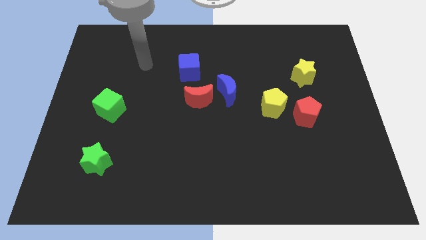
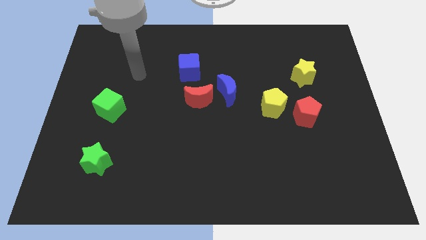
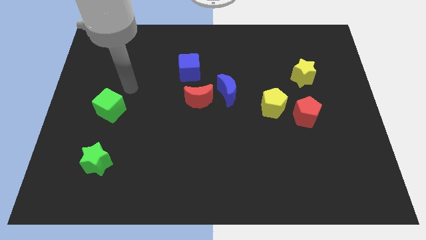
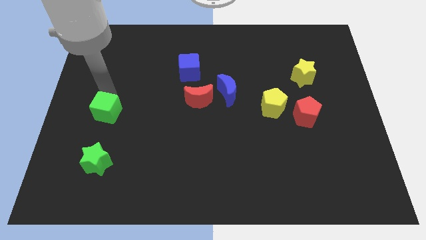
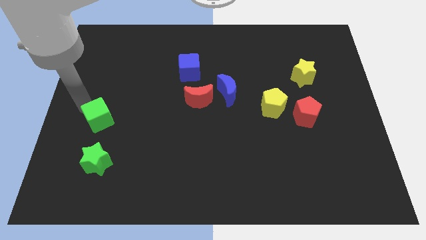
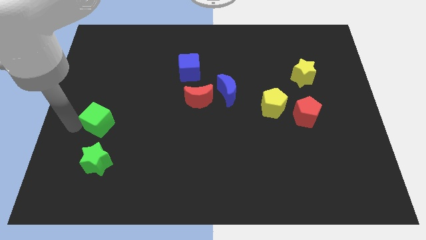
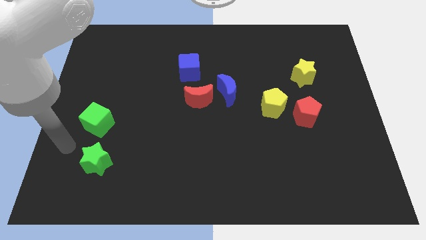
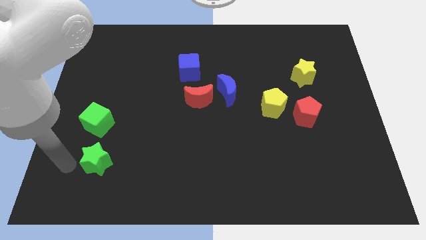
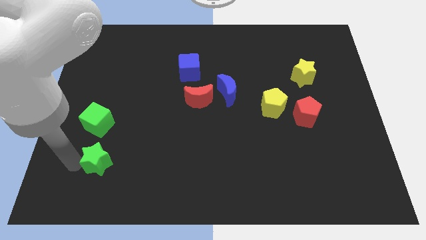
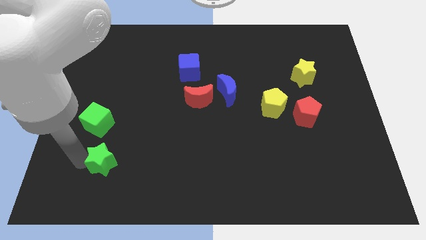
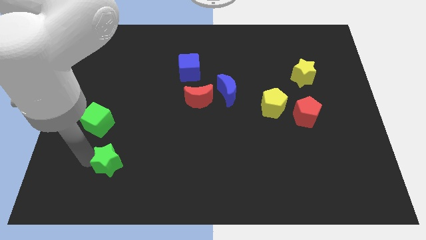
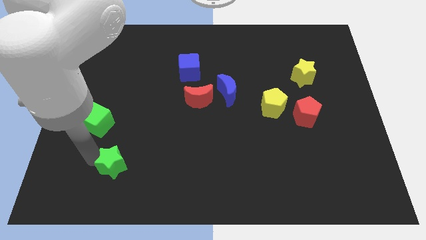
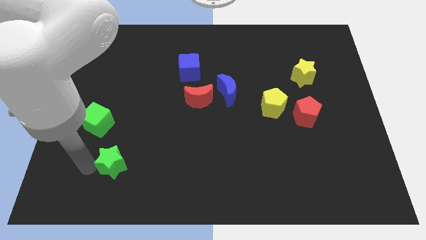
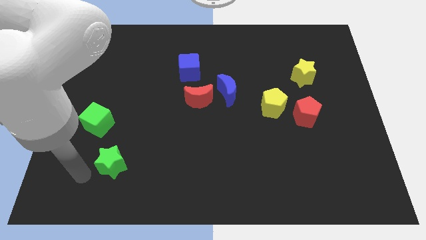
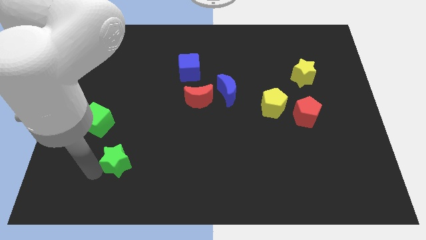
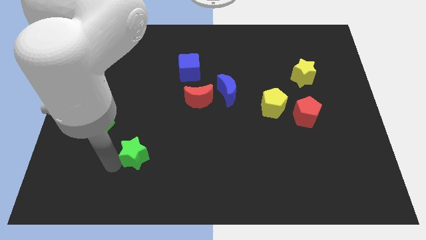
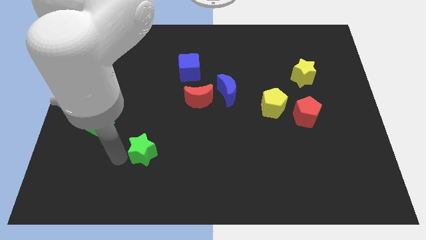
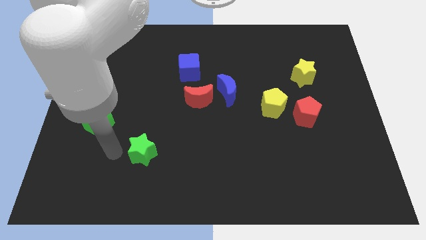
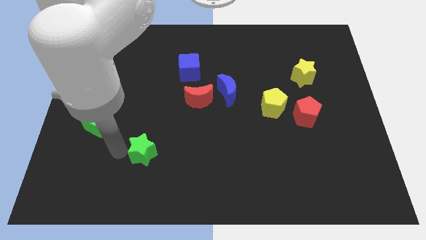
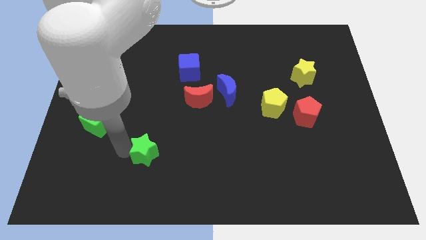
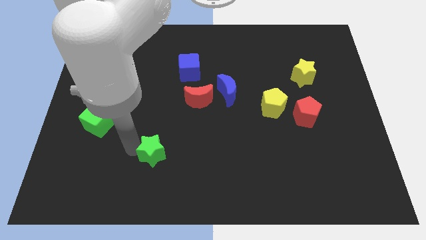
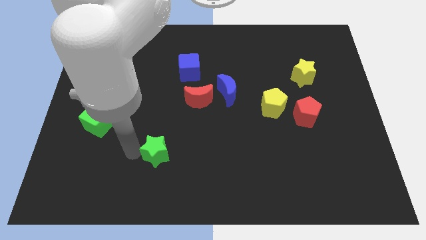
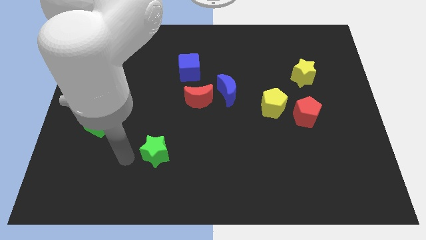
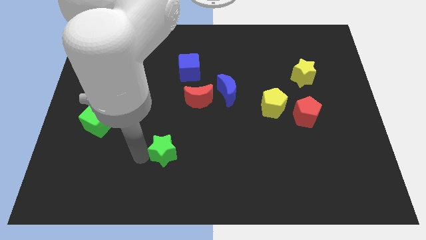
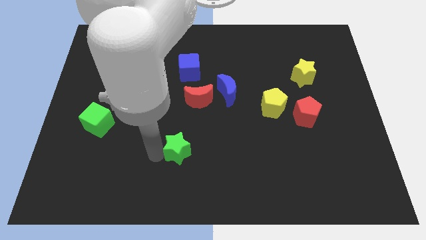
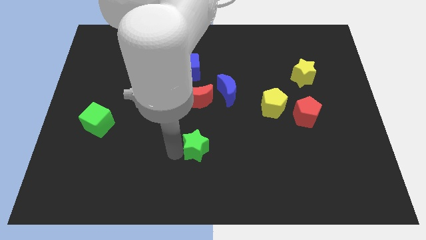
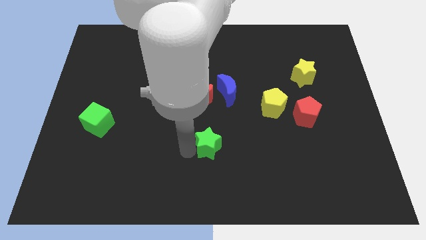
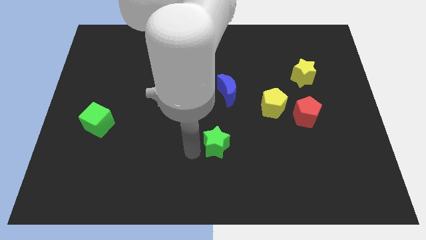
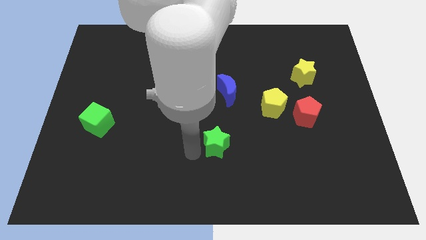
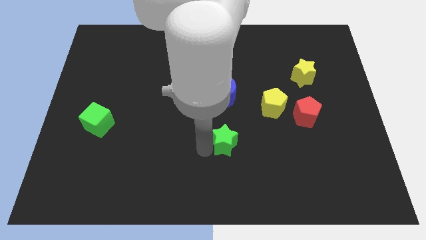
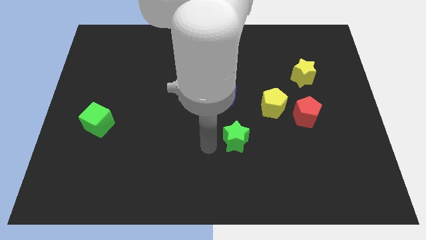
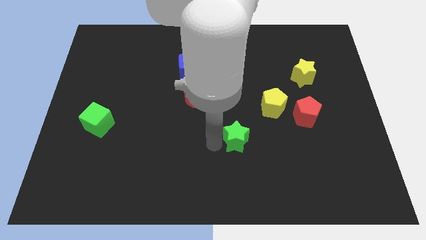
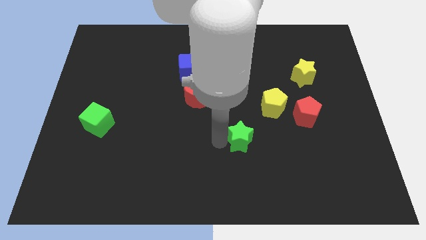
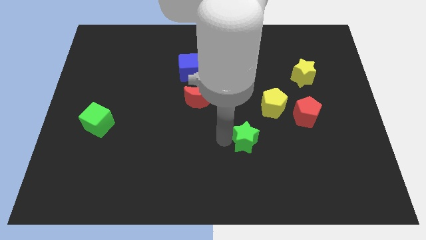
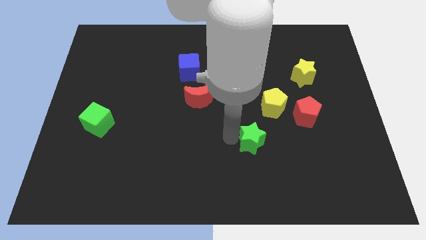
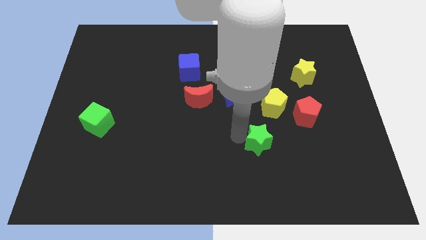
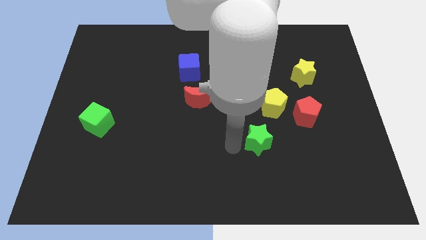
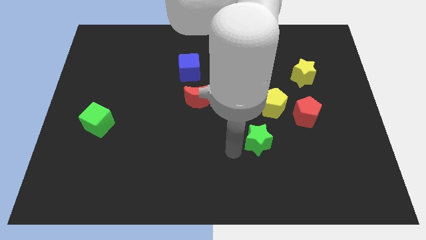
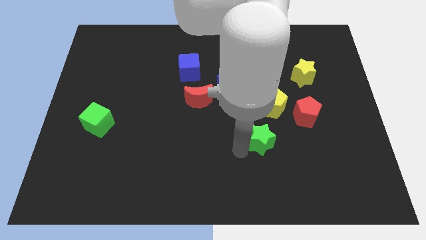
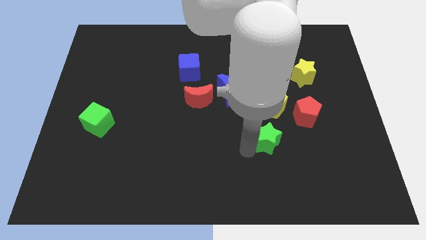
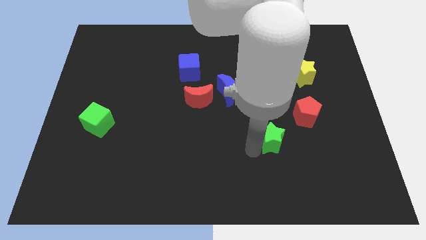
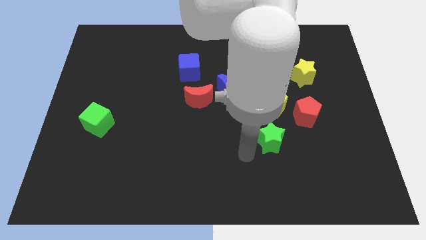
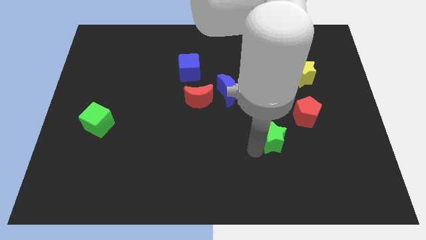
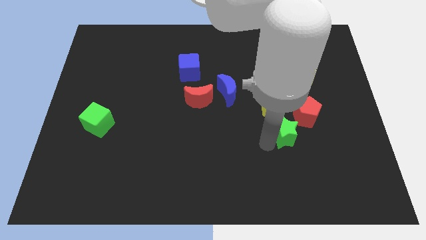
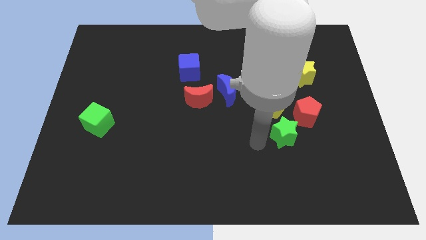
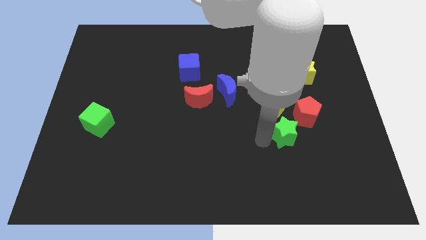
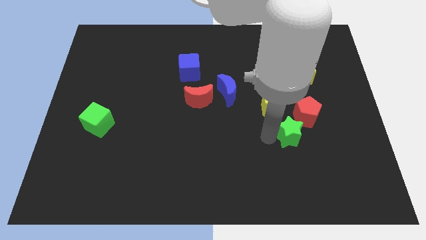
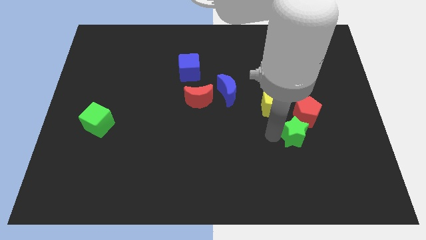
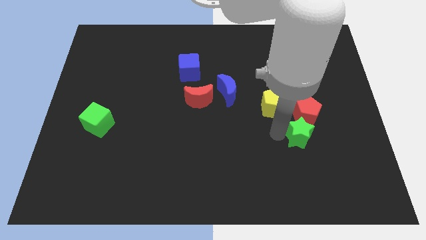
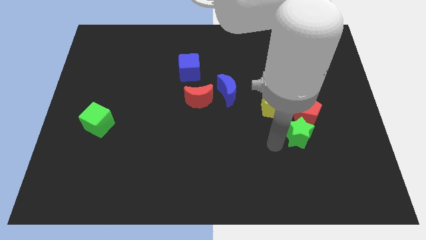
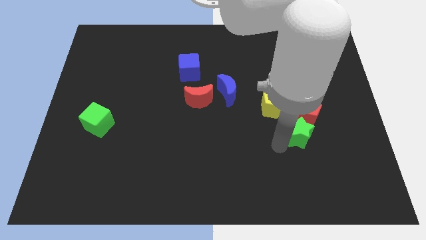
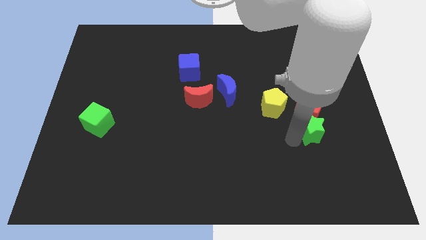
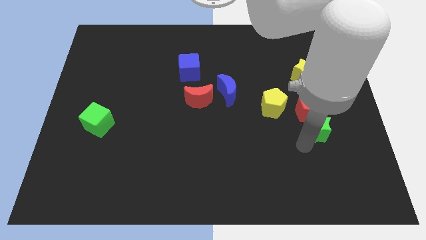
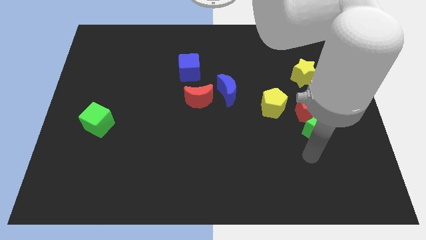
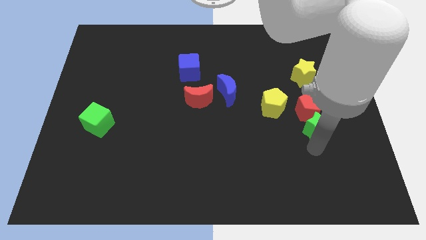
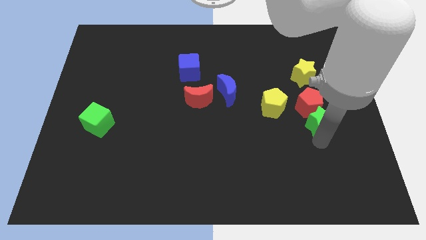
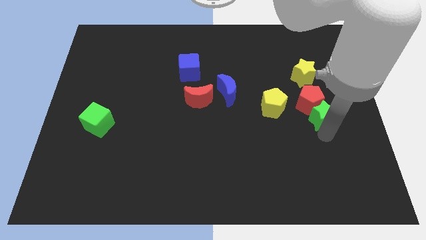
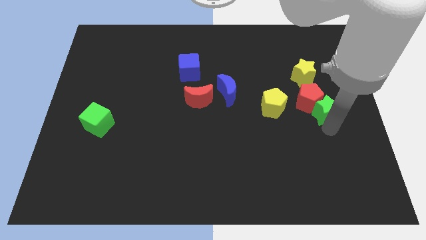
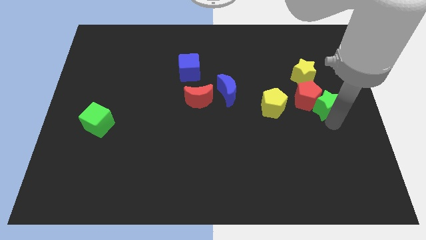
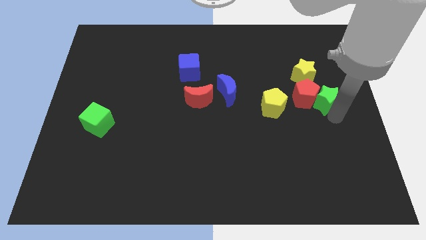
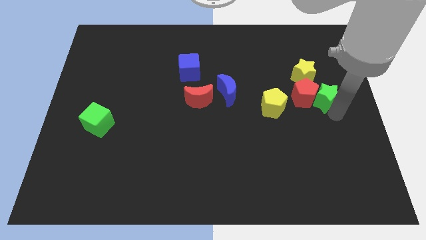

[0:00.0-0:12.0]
push the green star diagonally up and to the right of the red pentagon

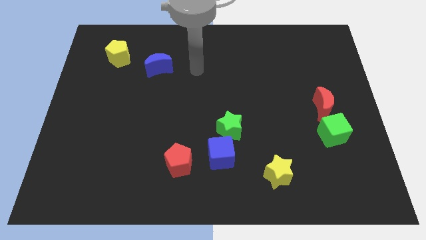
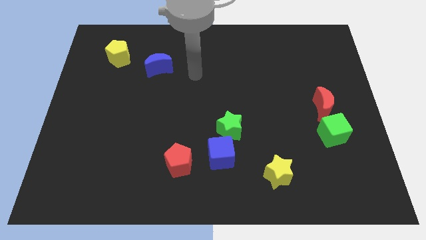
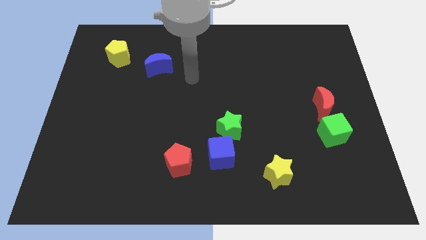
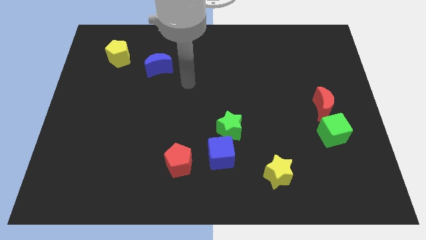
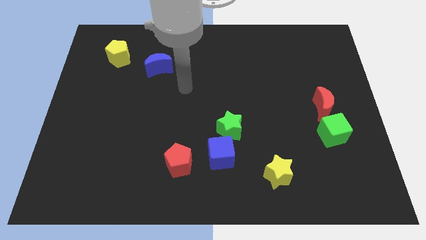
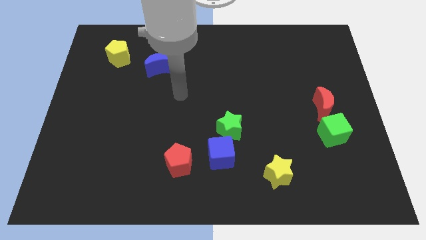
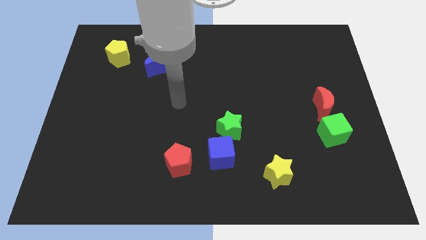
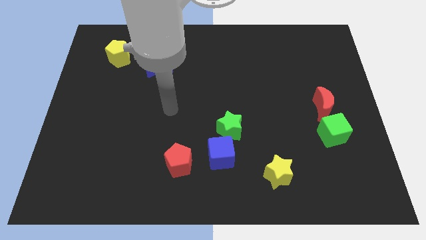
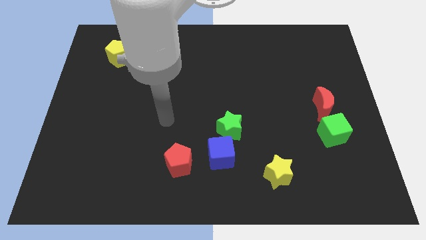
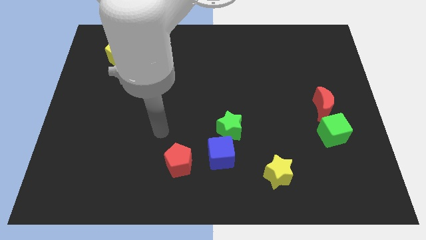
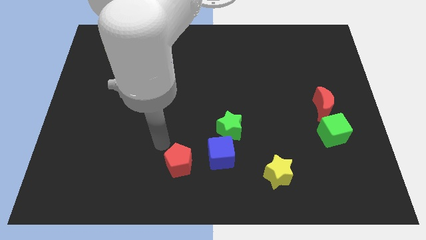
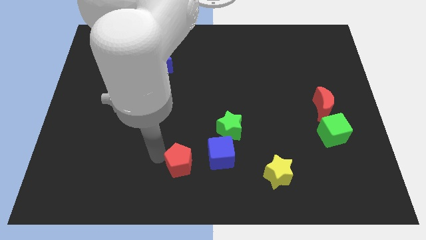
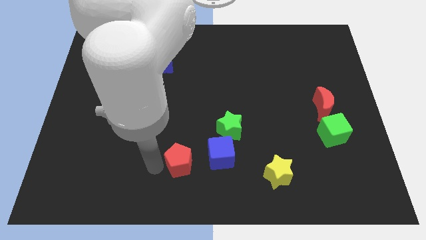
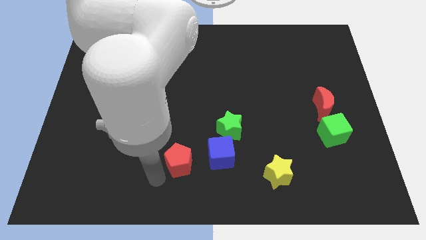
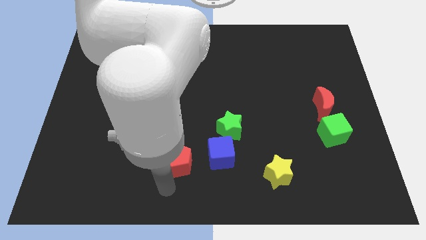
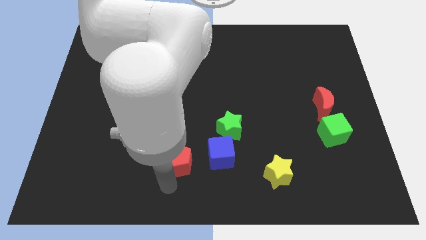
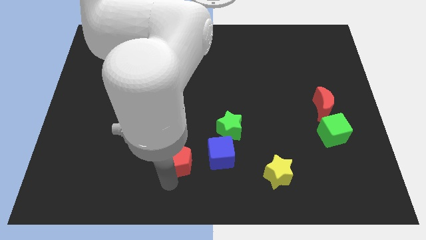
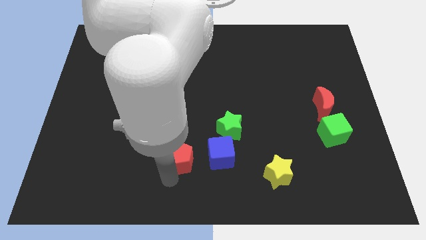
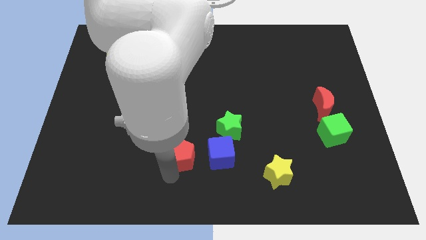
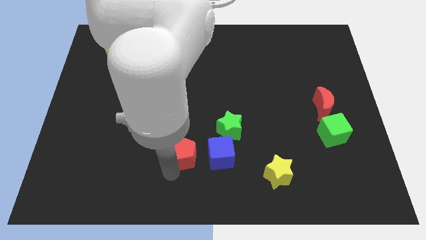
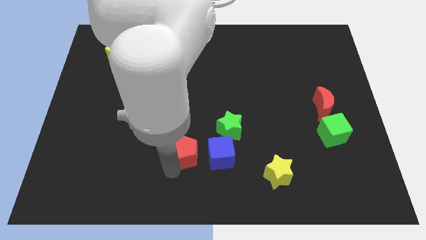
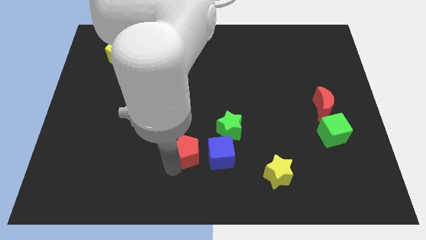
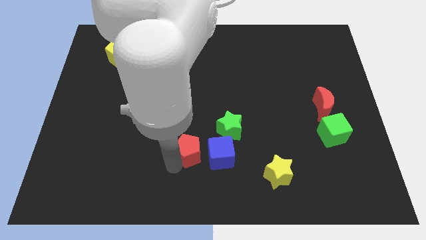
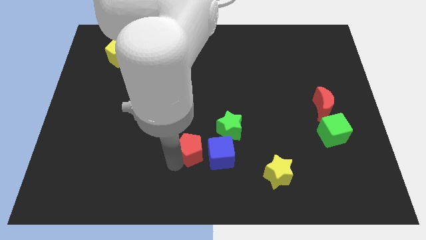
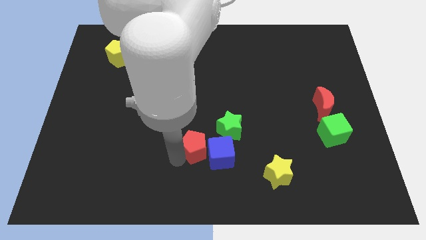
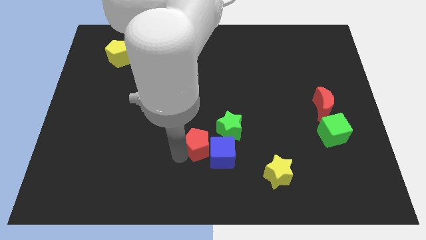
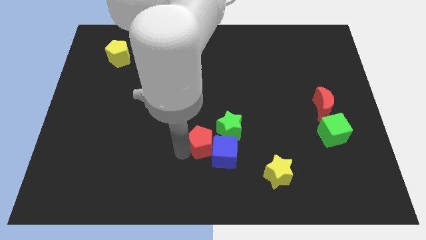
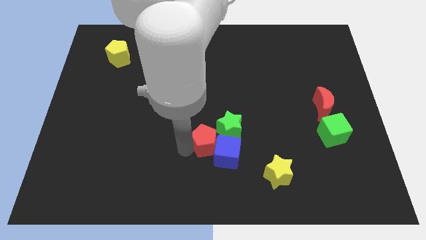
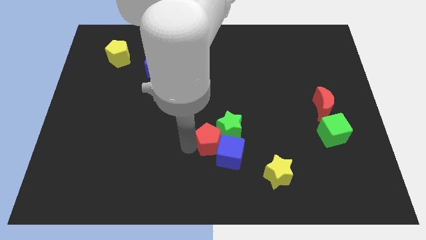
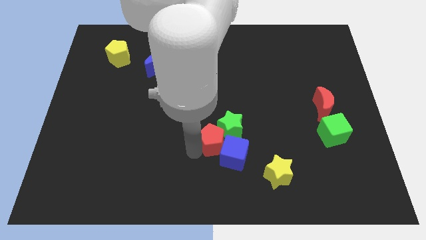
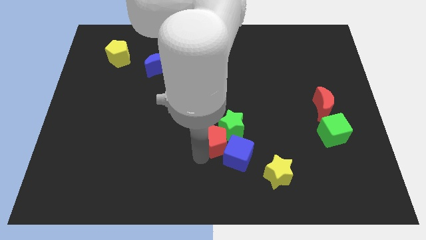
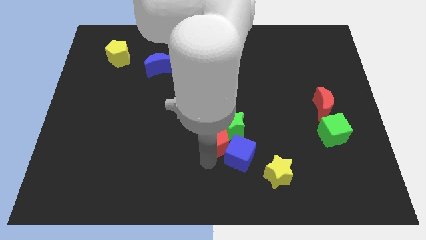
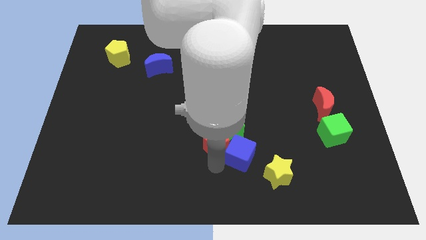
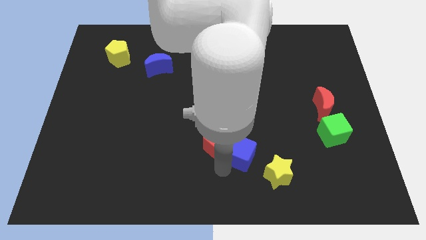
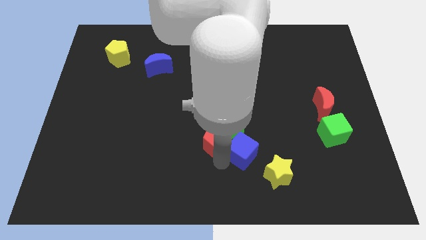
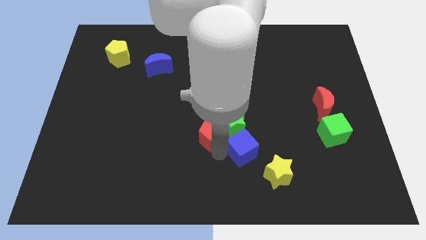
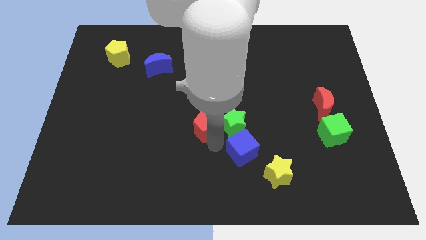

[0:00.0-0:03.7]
move the red pentagon to the top left of the green star
